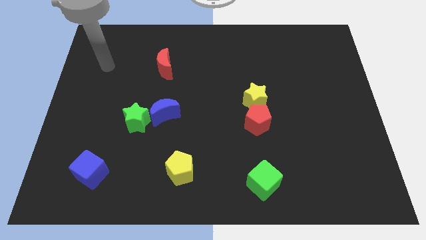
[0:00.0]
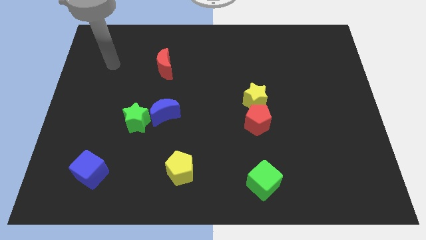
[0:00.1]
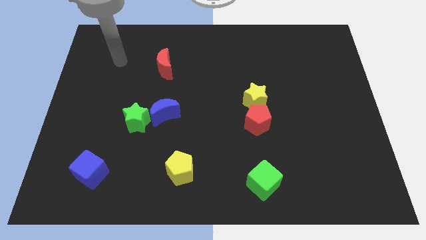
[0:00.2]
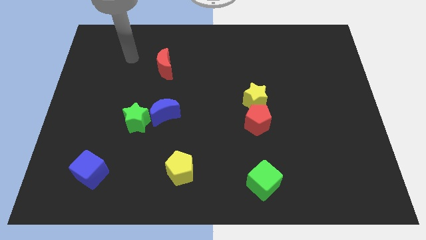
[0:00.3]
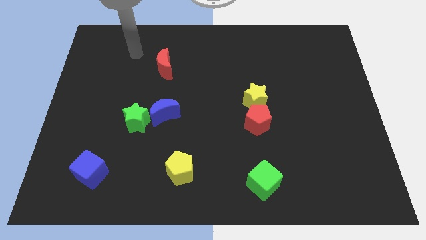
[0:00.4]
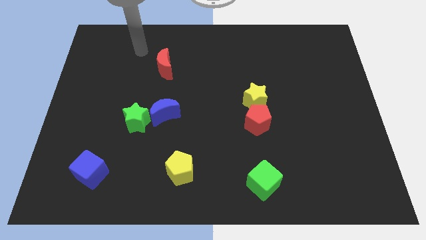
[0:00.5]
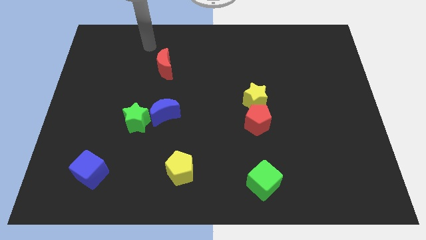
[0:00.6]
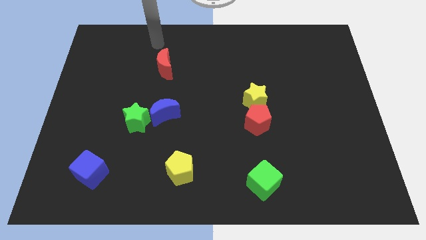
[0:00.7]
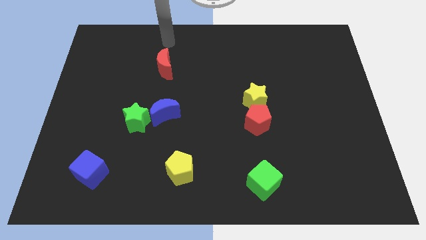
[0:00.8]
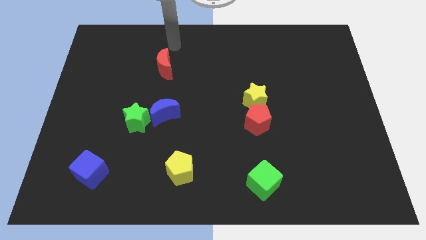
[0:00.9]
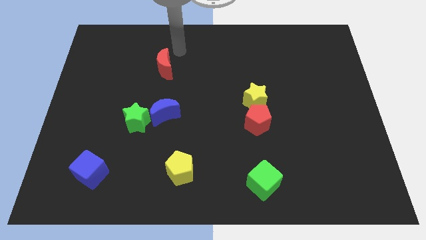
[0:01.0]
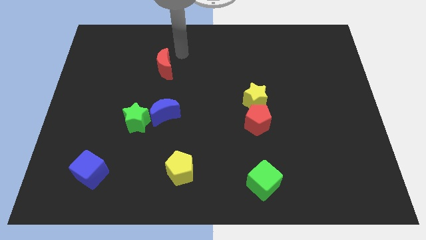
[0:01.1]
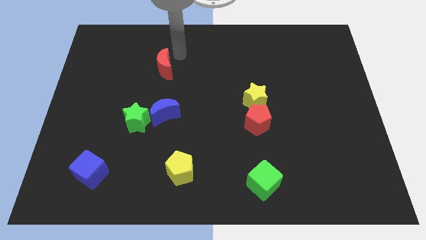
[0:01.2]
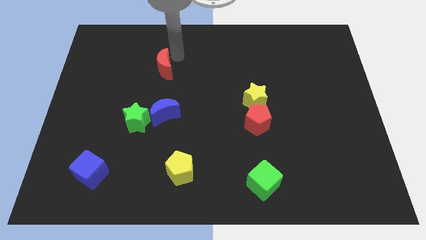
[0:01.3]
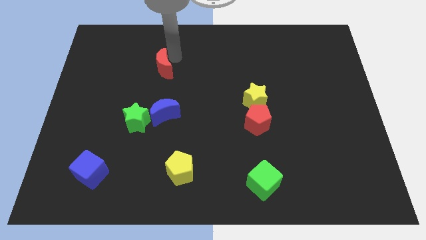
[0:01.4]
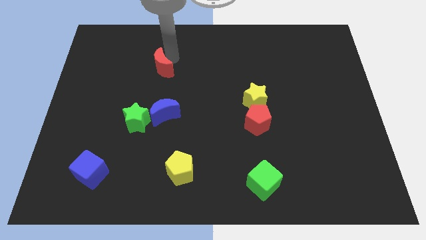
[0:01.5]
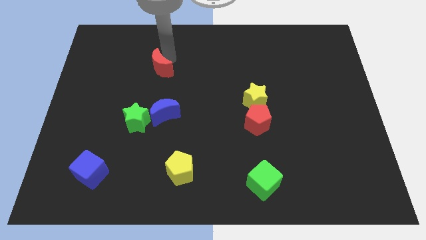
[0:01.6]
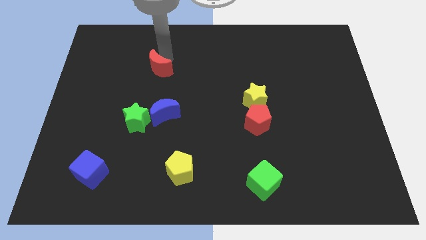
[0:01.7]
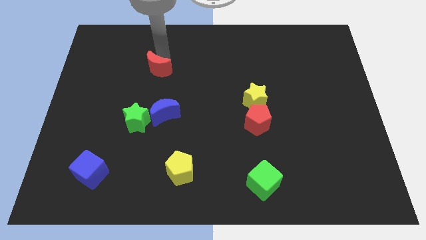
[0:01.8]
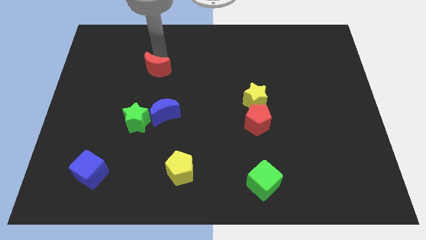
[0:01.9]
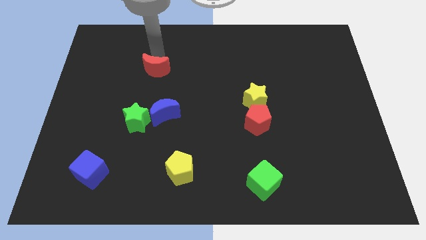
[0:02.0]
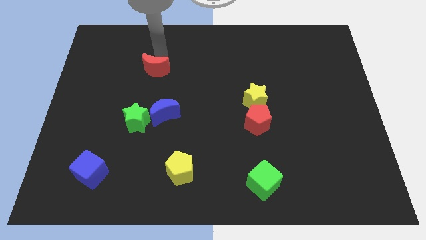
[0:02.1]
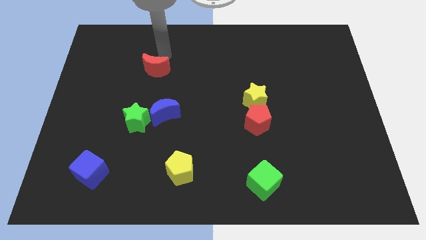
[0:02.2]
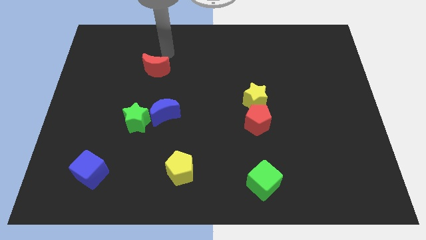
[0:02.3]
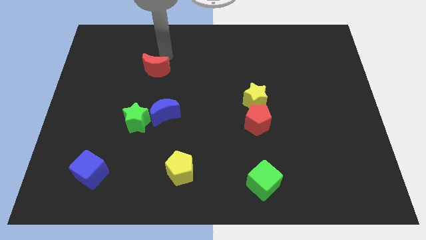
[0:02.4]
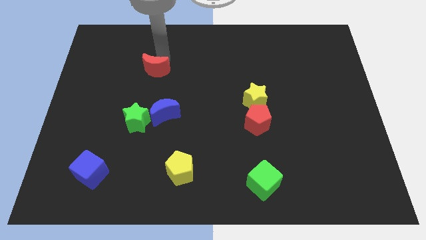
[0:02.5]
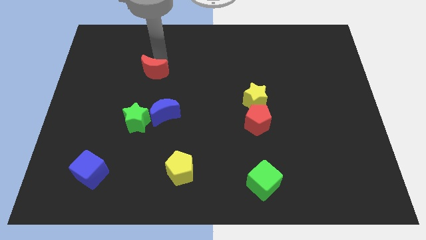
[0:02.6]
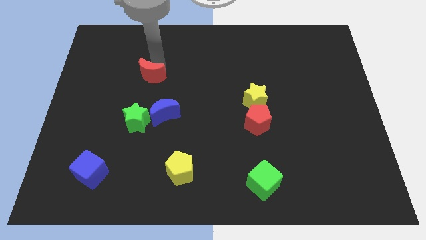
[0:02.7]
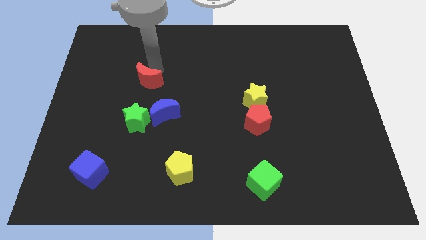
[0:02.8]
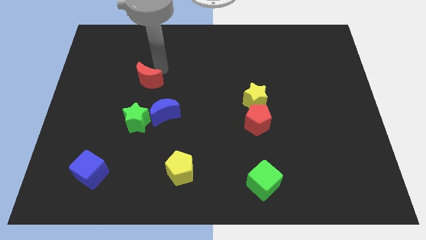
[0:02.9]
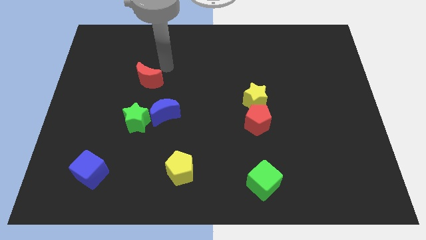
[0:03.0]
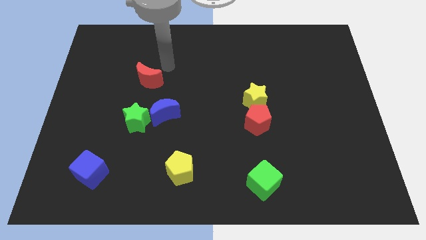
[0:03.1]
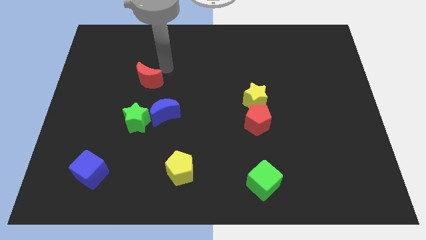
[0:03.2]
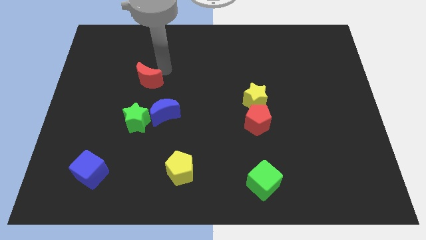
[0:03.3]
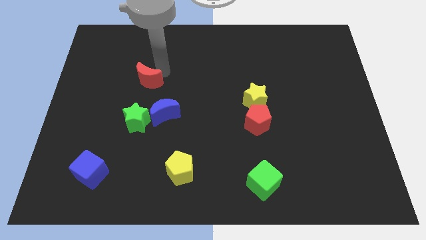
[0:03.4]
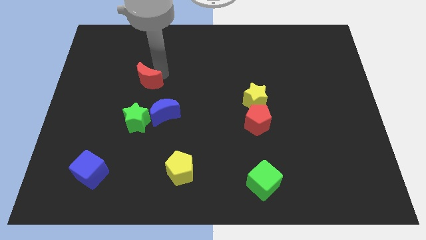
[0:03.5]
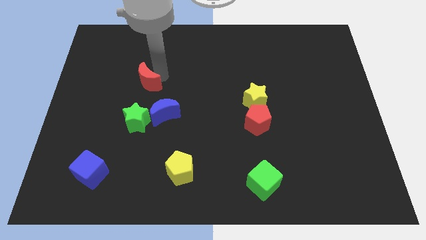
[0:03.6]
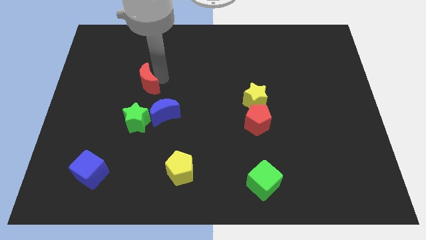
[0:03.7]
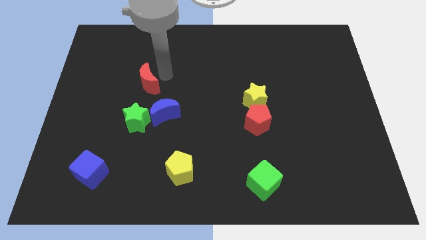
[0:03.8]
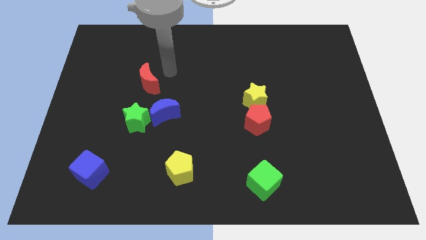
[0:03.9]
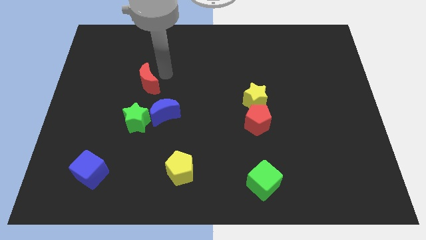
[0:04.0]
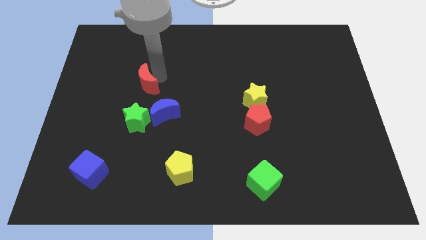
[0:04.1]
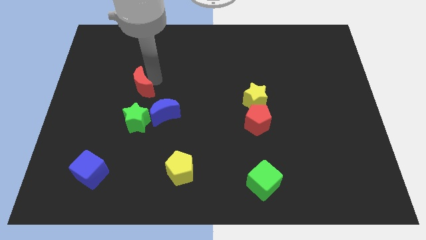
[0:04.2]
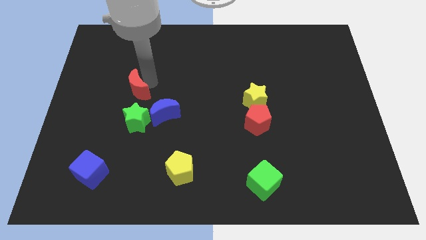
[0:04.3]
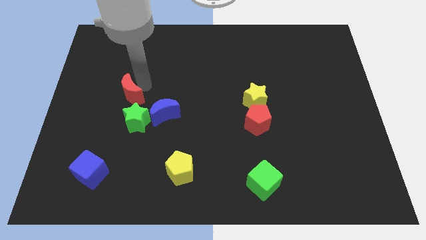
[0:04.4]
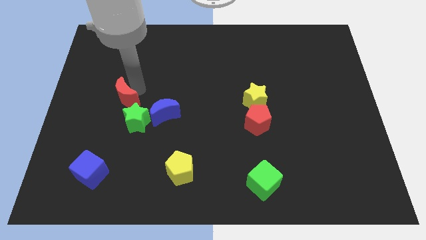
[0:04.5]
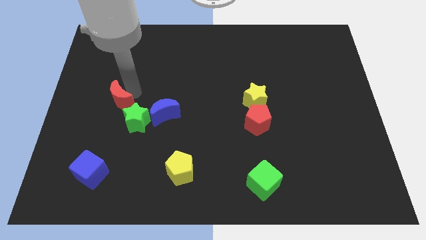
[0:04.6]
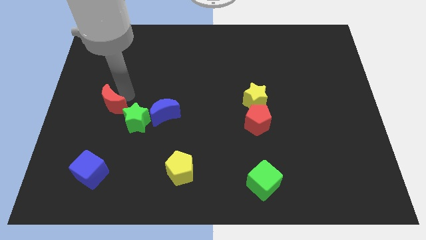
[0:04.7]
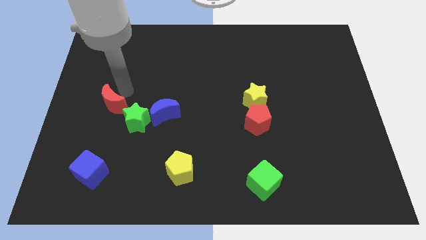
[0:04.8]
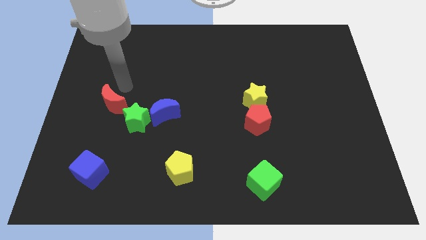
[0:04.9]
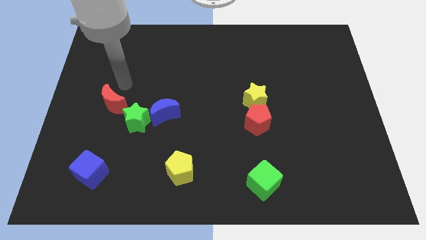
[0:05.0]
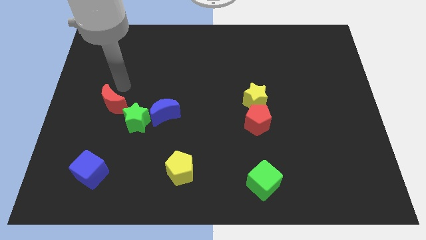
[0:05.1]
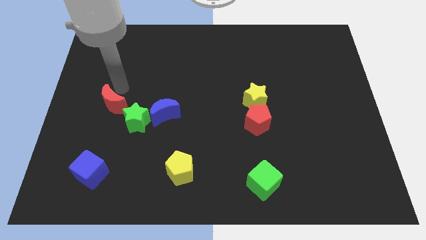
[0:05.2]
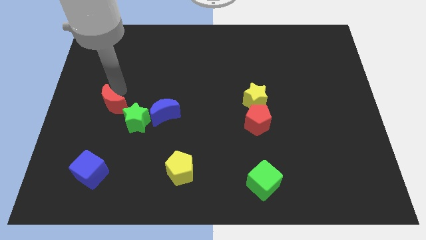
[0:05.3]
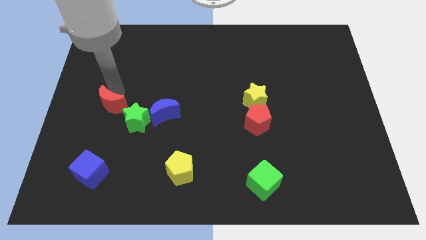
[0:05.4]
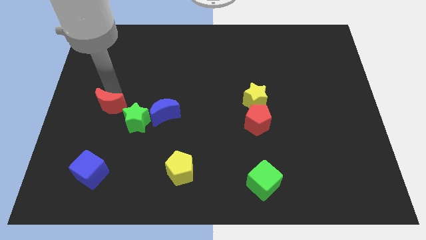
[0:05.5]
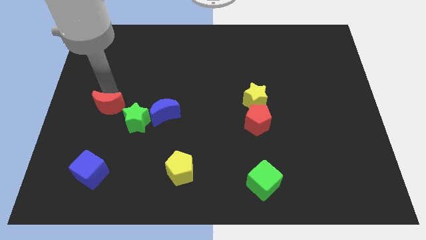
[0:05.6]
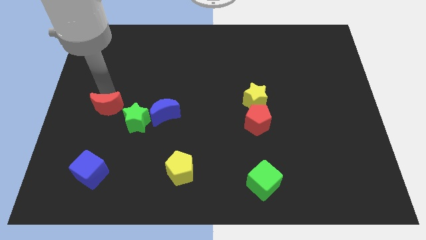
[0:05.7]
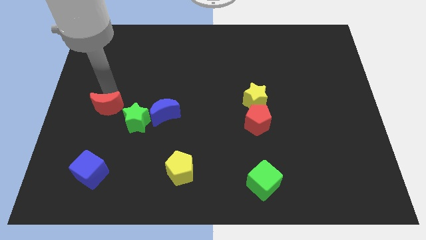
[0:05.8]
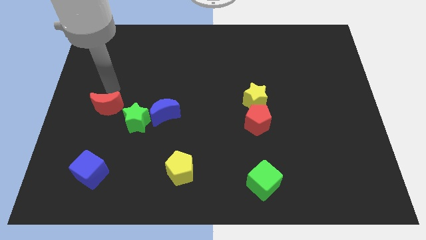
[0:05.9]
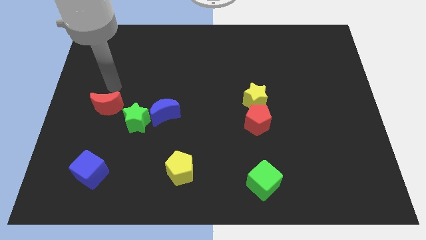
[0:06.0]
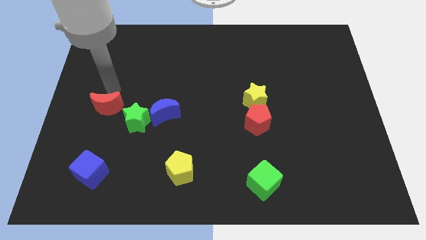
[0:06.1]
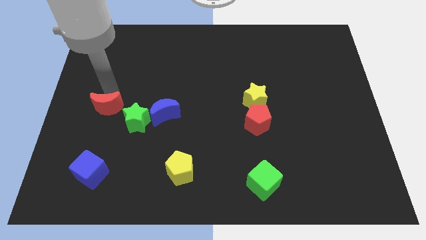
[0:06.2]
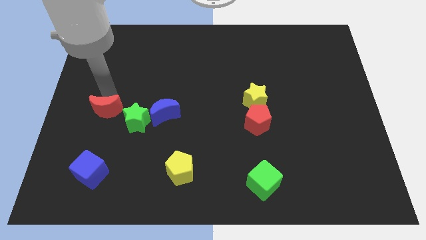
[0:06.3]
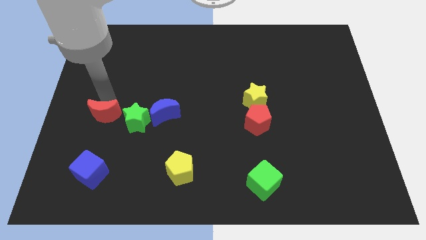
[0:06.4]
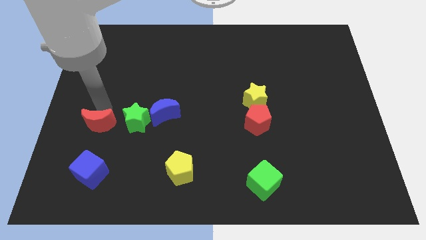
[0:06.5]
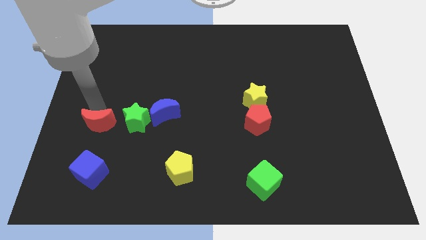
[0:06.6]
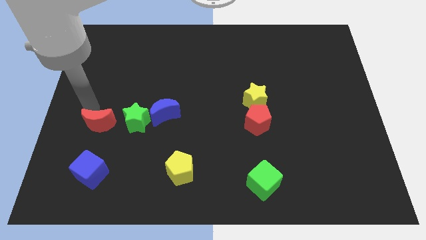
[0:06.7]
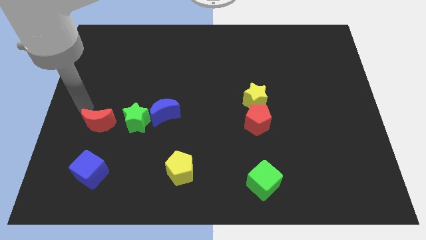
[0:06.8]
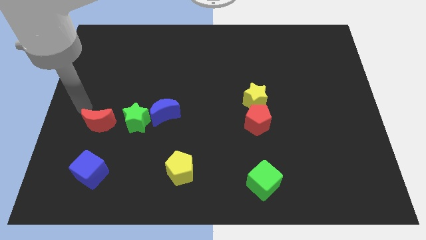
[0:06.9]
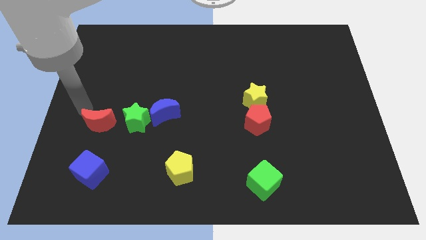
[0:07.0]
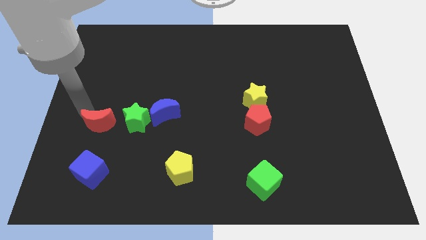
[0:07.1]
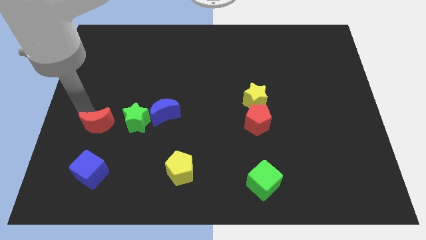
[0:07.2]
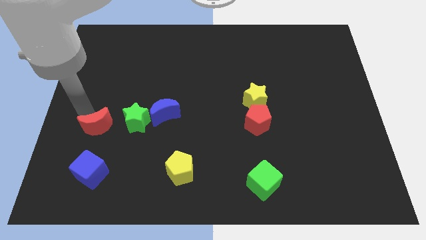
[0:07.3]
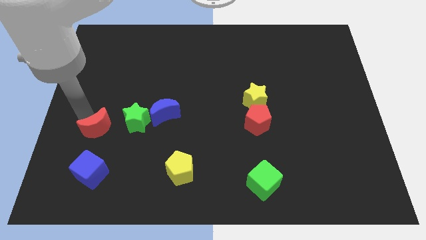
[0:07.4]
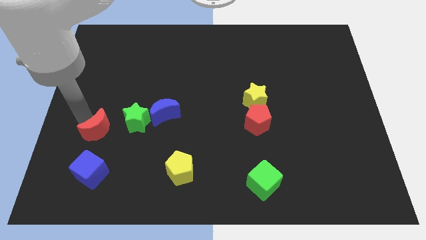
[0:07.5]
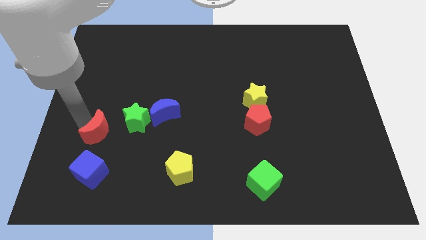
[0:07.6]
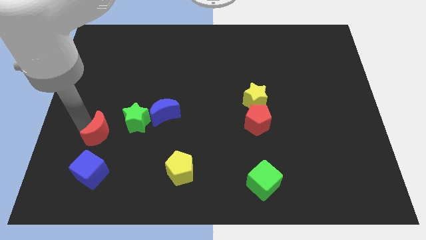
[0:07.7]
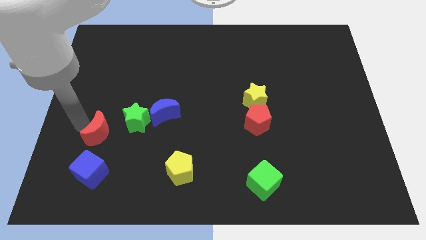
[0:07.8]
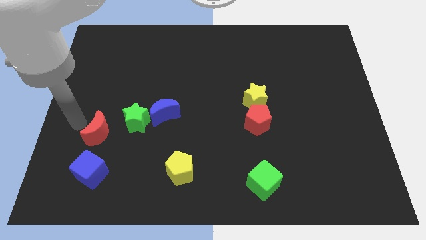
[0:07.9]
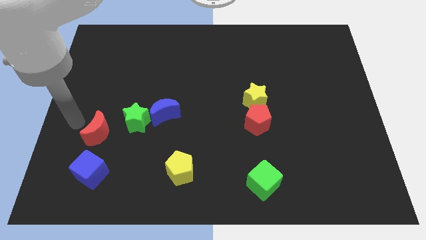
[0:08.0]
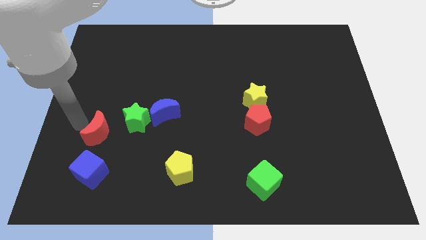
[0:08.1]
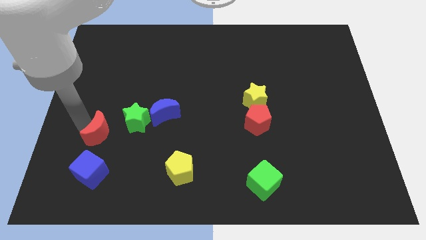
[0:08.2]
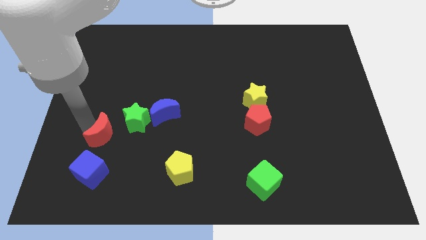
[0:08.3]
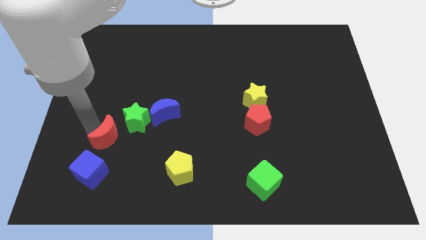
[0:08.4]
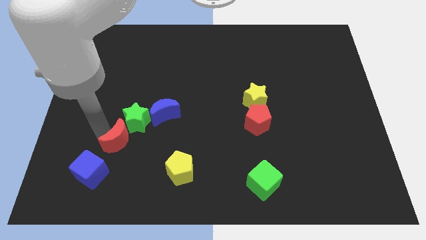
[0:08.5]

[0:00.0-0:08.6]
slide the red moon below the green star
